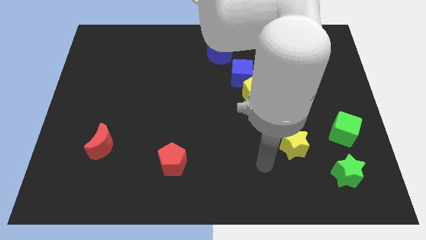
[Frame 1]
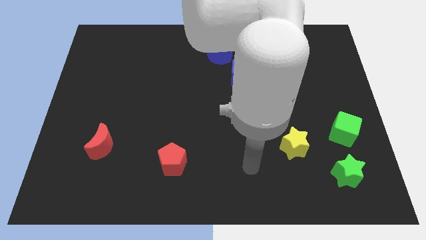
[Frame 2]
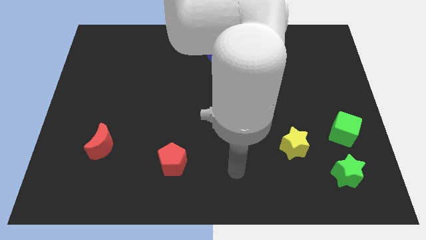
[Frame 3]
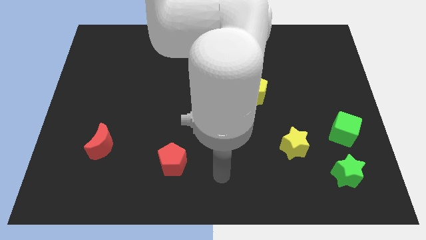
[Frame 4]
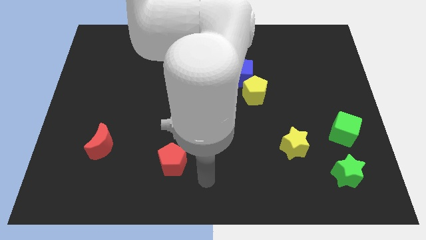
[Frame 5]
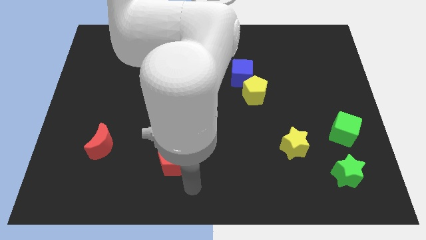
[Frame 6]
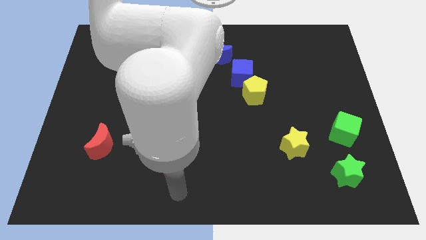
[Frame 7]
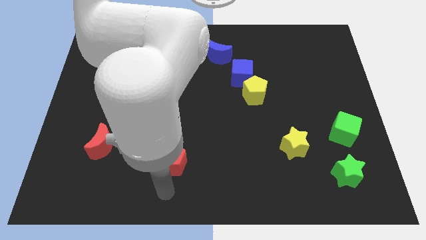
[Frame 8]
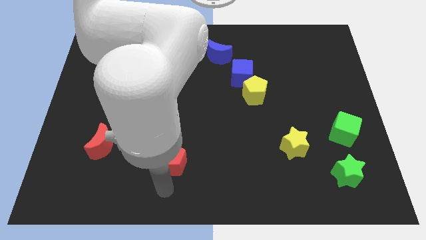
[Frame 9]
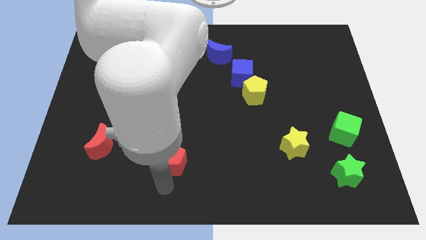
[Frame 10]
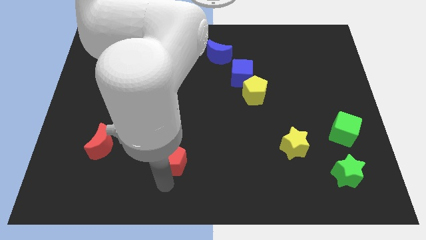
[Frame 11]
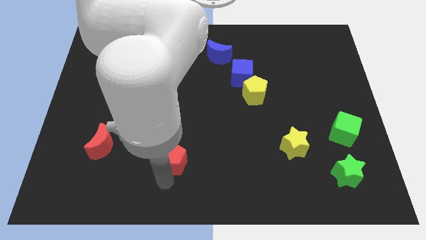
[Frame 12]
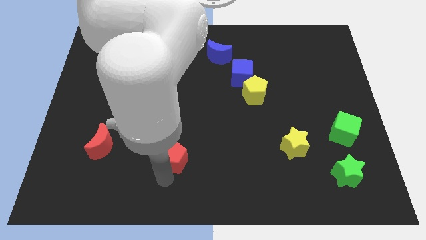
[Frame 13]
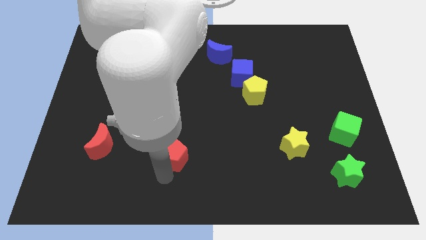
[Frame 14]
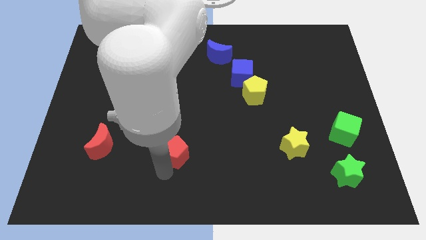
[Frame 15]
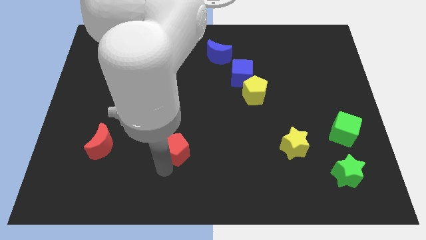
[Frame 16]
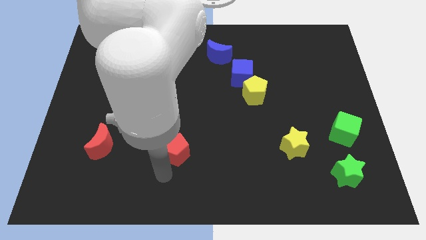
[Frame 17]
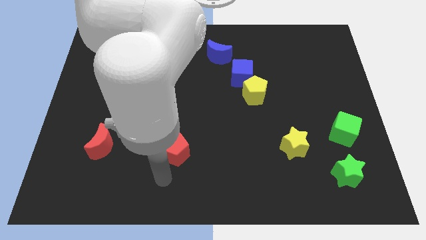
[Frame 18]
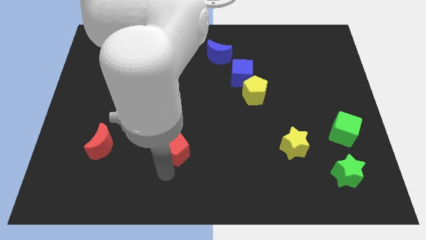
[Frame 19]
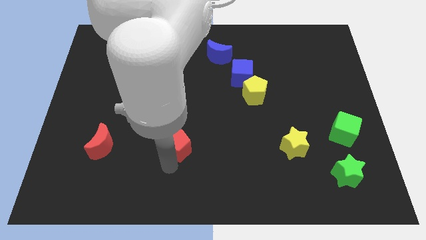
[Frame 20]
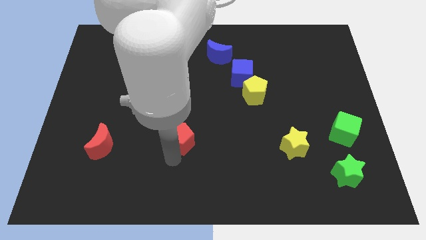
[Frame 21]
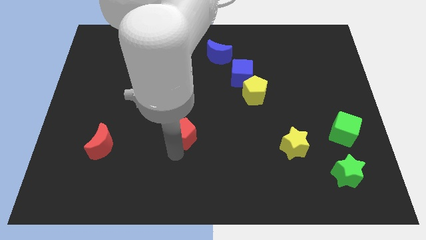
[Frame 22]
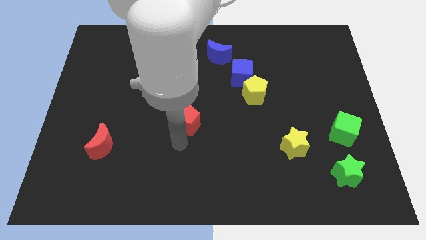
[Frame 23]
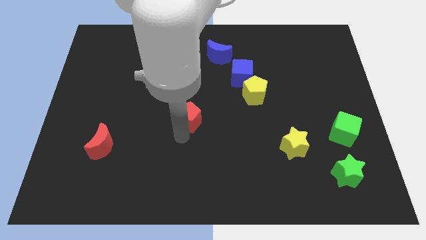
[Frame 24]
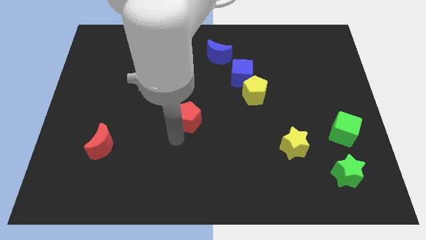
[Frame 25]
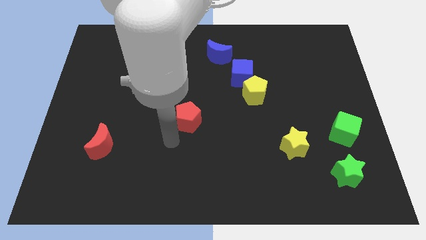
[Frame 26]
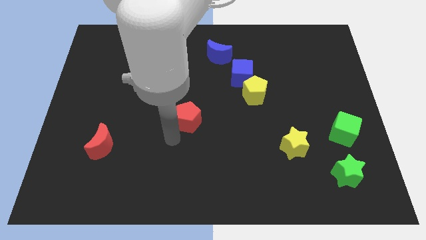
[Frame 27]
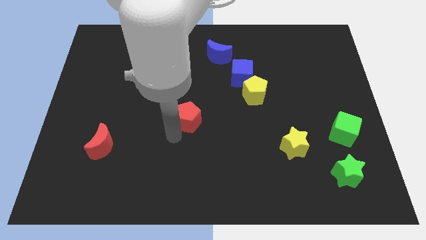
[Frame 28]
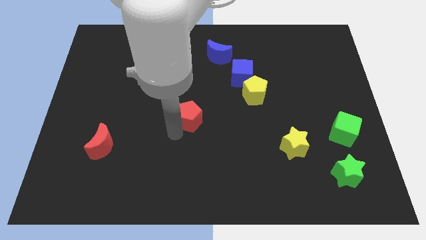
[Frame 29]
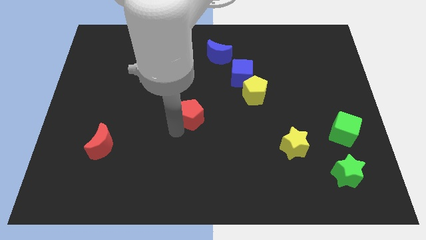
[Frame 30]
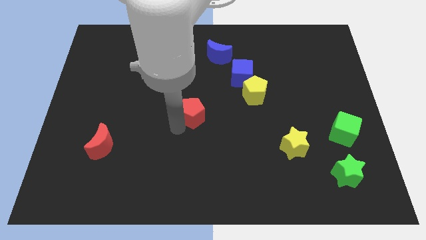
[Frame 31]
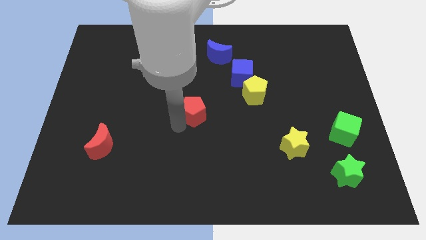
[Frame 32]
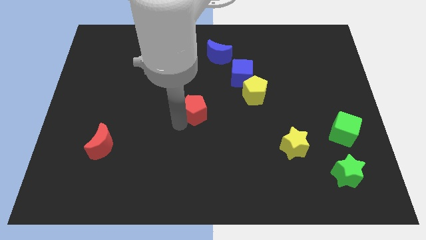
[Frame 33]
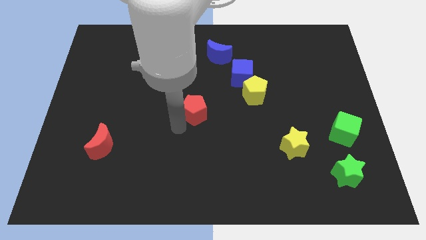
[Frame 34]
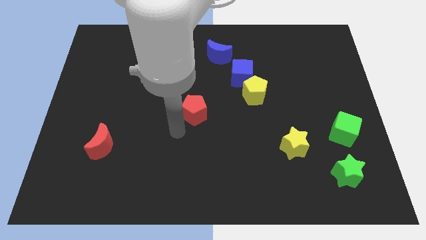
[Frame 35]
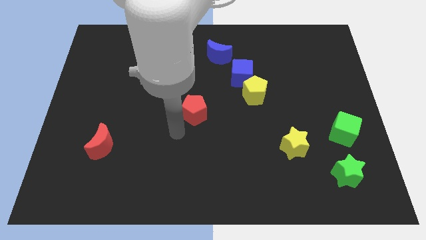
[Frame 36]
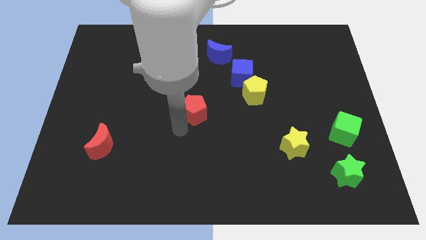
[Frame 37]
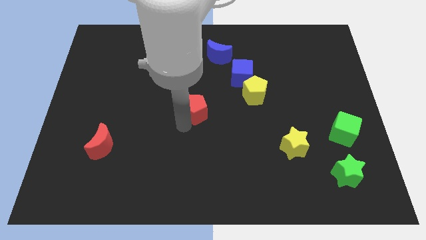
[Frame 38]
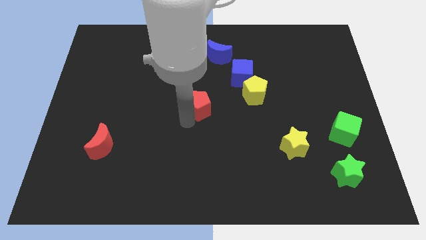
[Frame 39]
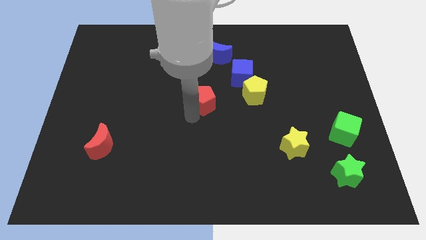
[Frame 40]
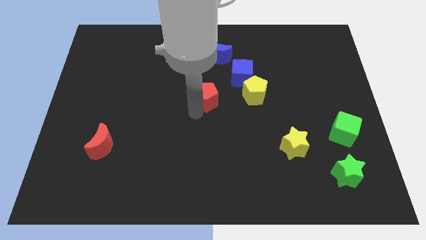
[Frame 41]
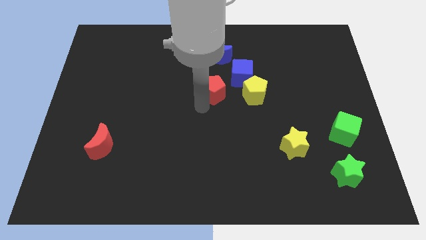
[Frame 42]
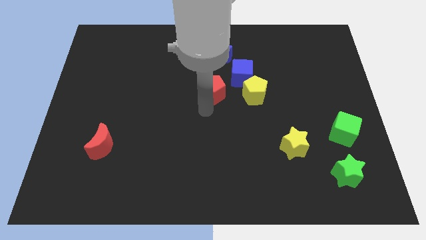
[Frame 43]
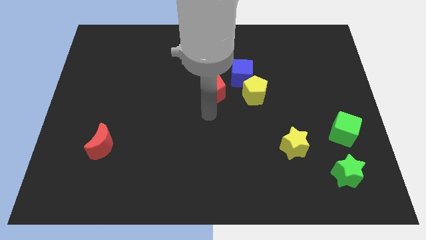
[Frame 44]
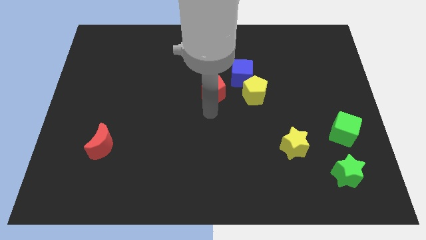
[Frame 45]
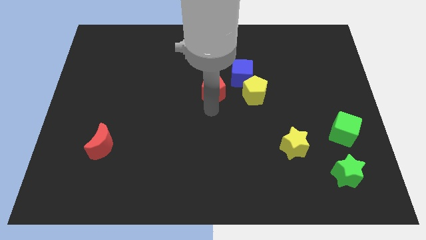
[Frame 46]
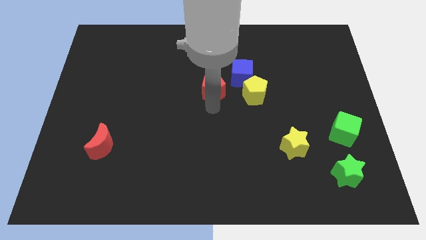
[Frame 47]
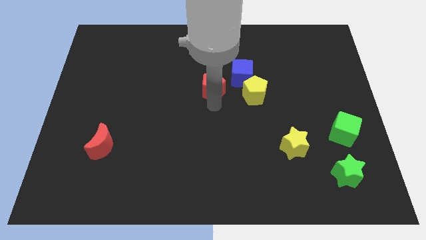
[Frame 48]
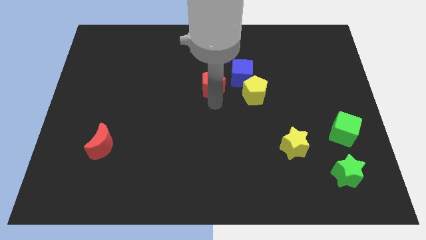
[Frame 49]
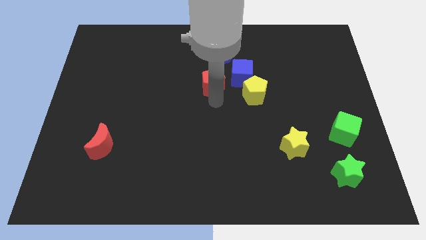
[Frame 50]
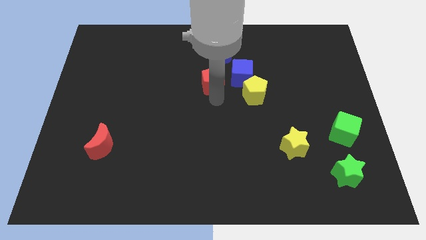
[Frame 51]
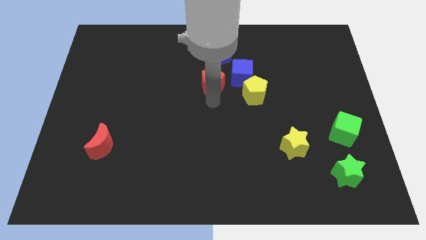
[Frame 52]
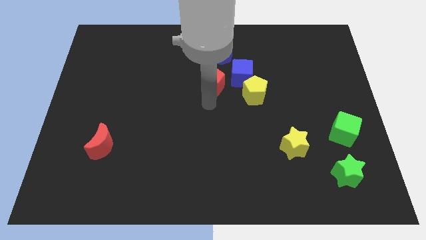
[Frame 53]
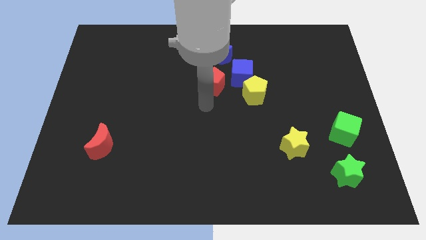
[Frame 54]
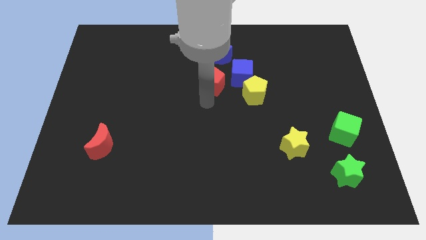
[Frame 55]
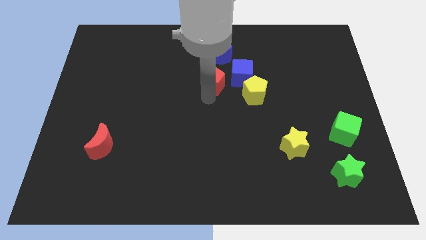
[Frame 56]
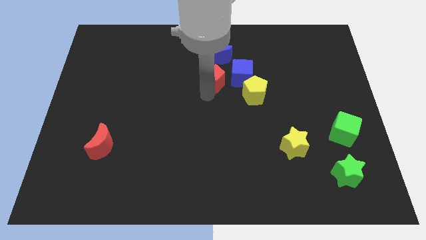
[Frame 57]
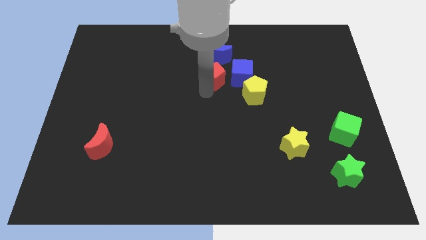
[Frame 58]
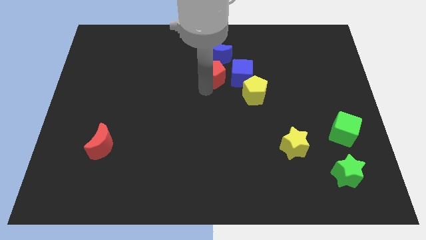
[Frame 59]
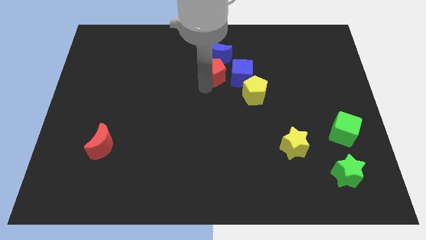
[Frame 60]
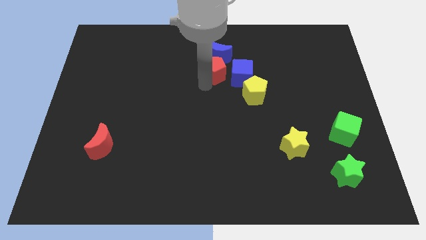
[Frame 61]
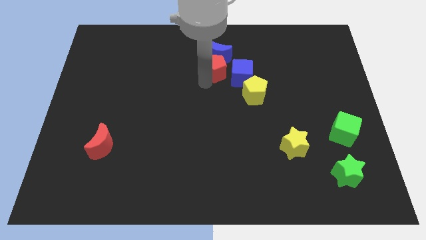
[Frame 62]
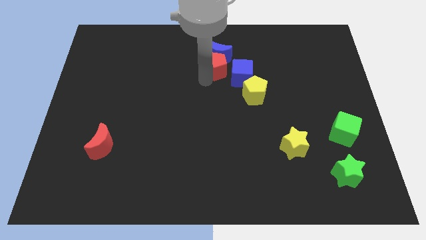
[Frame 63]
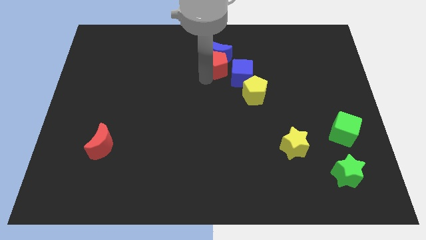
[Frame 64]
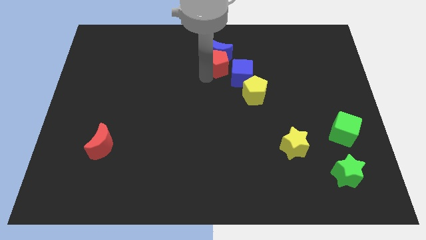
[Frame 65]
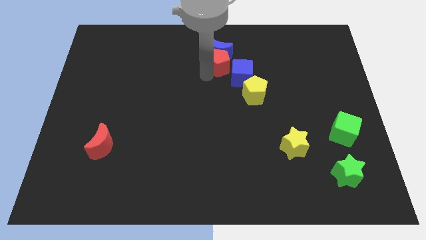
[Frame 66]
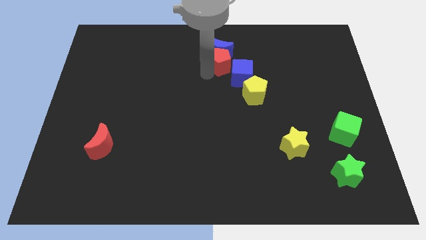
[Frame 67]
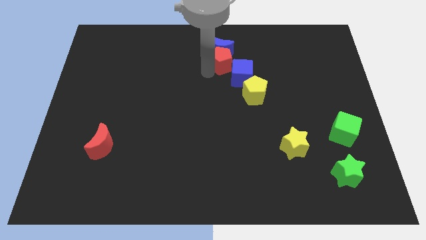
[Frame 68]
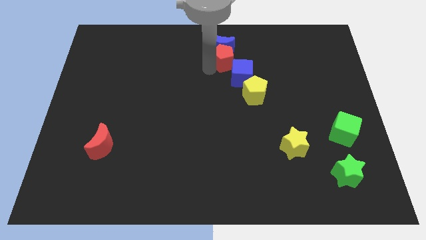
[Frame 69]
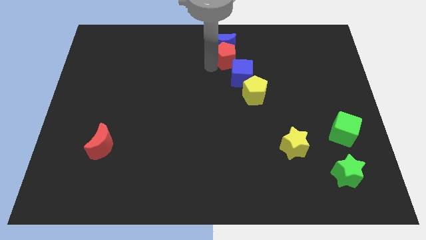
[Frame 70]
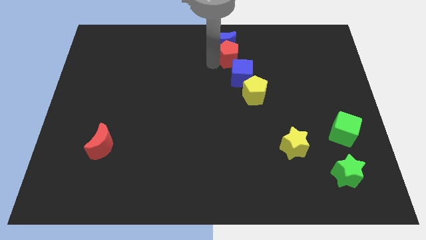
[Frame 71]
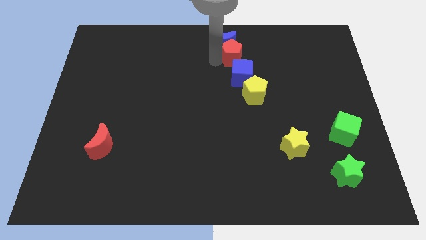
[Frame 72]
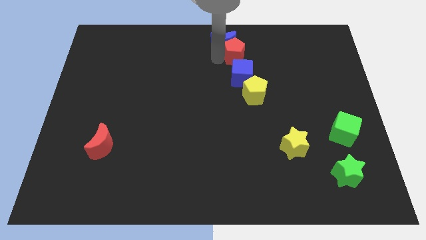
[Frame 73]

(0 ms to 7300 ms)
push the red pentagon right of the blue moon

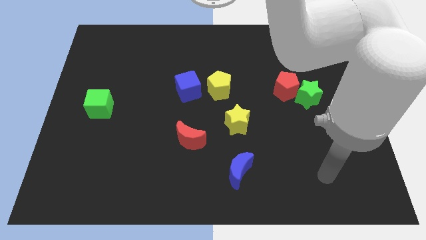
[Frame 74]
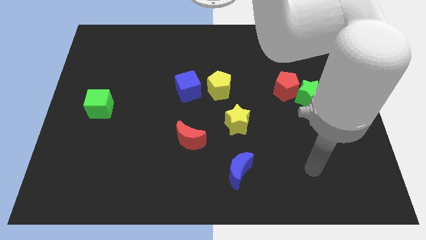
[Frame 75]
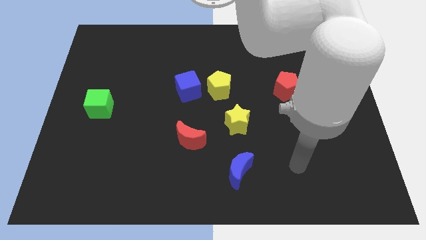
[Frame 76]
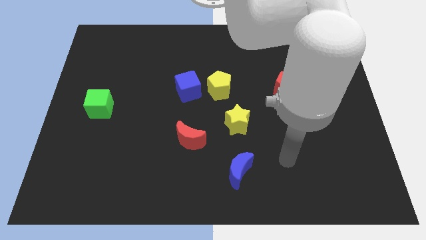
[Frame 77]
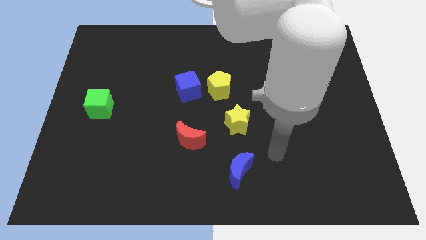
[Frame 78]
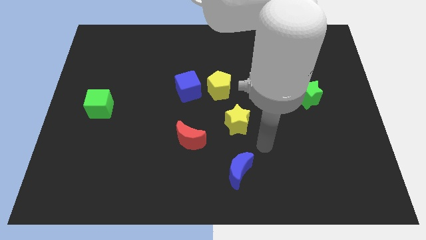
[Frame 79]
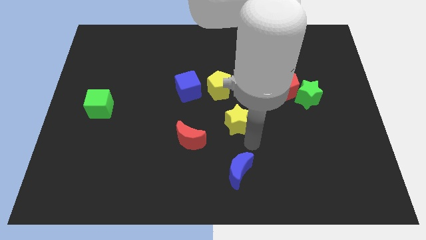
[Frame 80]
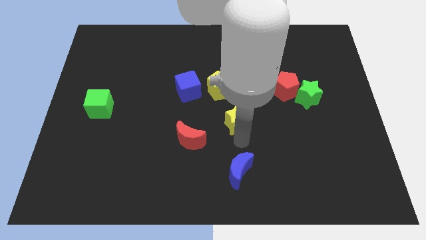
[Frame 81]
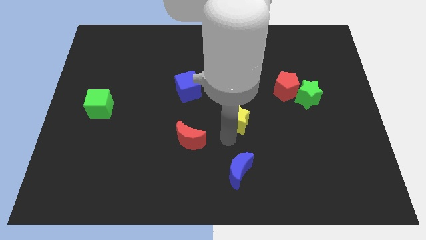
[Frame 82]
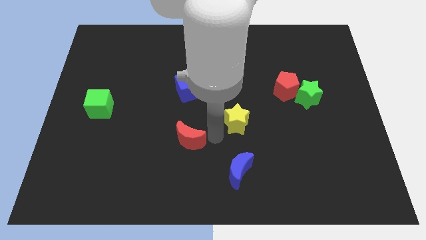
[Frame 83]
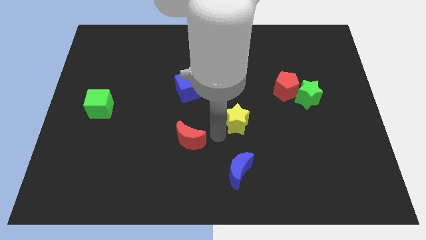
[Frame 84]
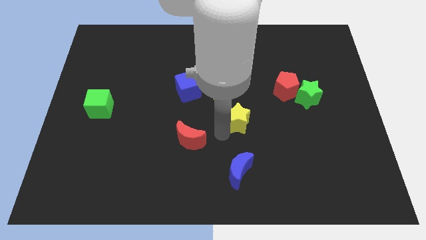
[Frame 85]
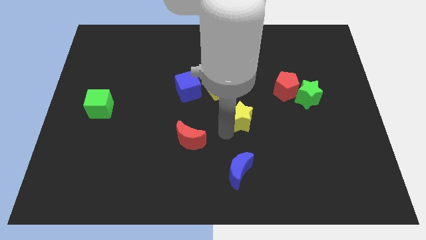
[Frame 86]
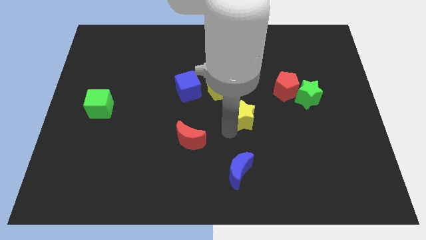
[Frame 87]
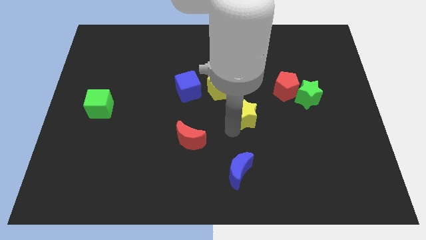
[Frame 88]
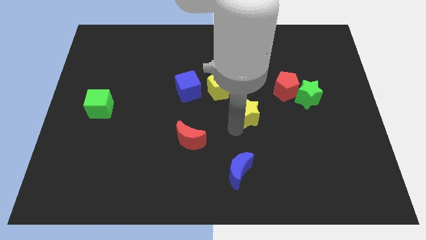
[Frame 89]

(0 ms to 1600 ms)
slide the yellow star diagonally down and to the left of the red pentagon
